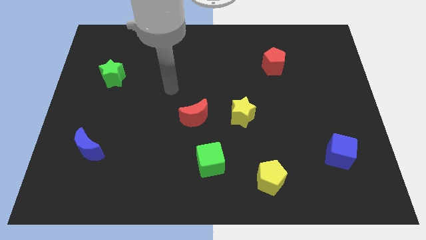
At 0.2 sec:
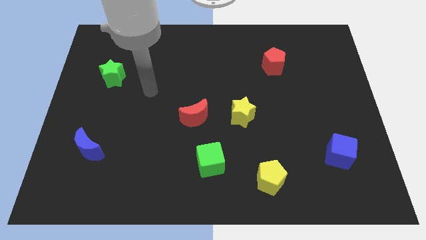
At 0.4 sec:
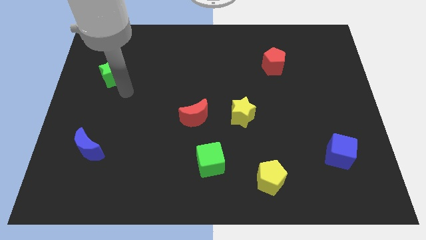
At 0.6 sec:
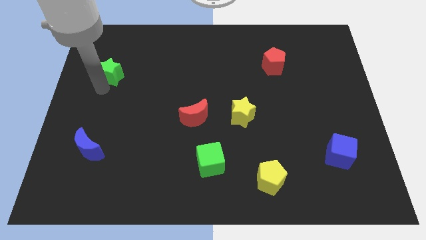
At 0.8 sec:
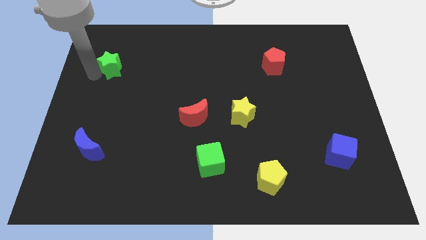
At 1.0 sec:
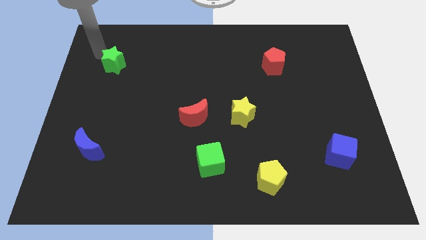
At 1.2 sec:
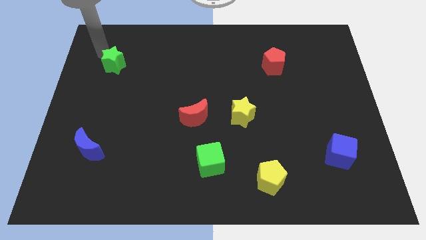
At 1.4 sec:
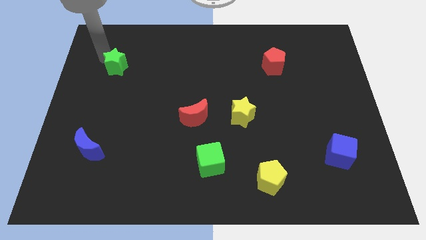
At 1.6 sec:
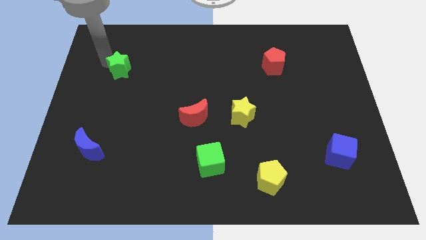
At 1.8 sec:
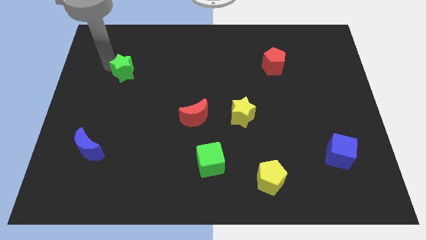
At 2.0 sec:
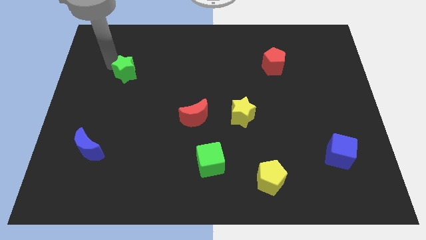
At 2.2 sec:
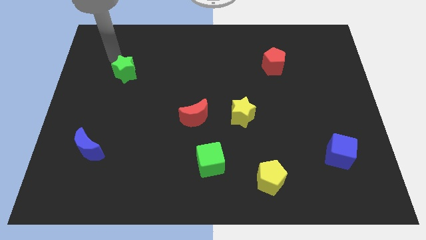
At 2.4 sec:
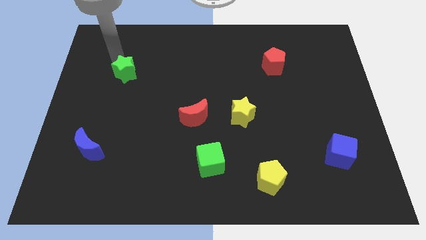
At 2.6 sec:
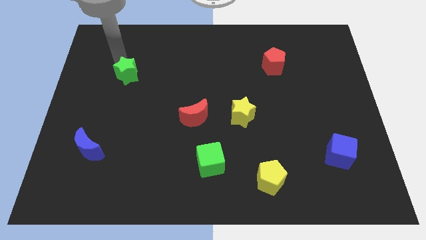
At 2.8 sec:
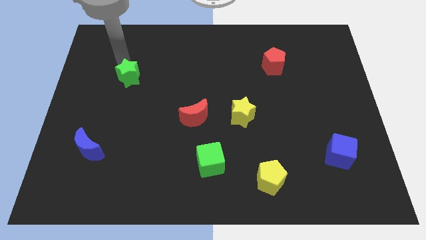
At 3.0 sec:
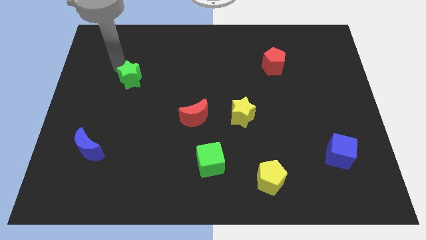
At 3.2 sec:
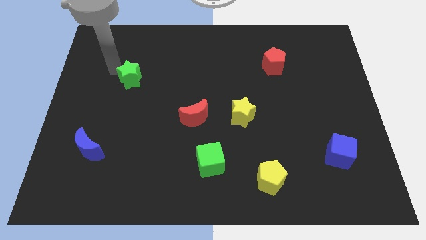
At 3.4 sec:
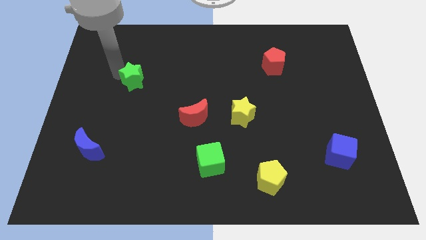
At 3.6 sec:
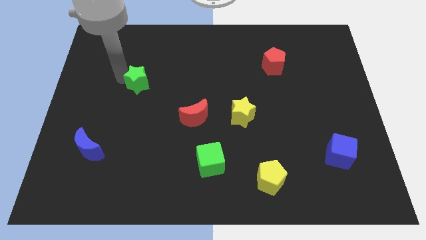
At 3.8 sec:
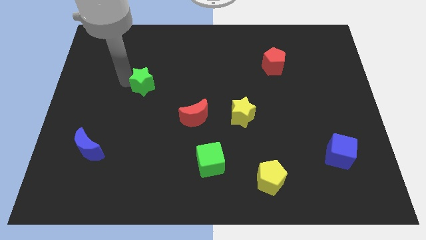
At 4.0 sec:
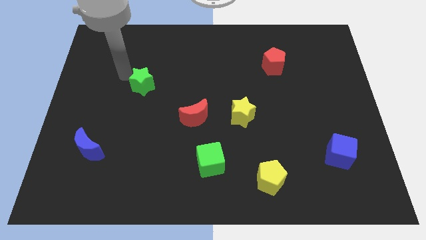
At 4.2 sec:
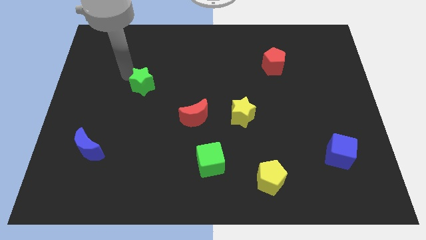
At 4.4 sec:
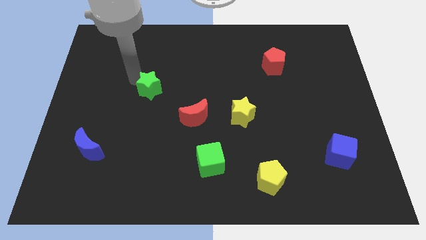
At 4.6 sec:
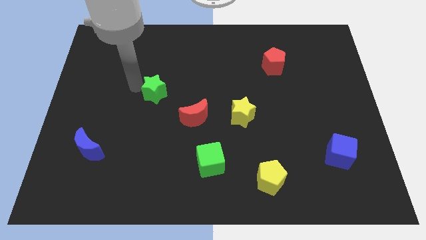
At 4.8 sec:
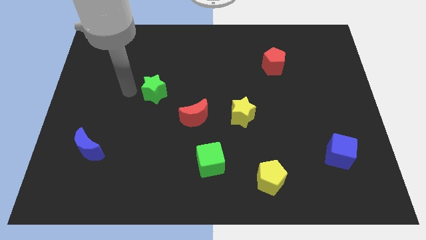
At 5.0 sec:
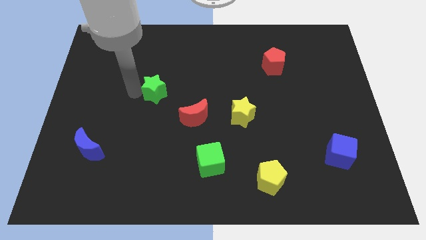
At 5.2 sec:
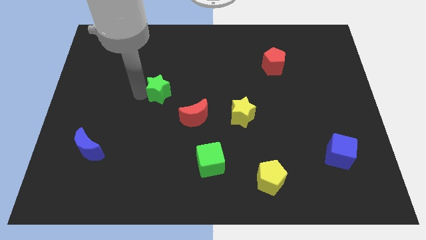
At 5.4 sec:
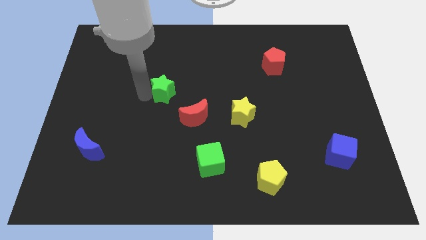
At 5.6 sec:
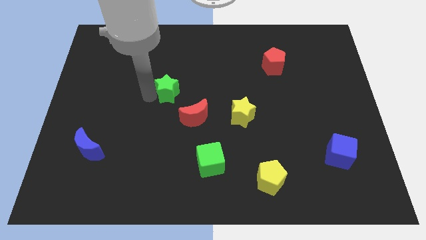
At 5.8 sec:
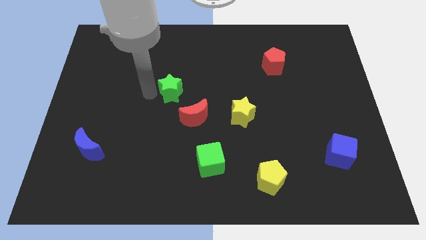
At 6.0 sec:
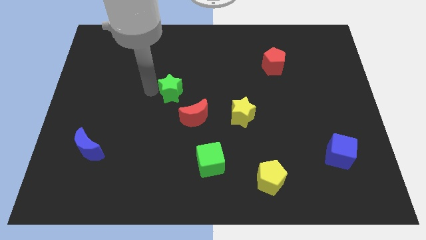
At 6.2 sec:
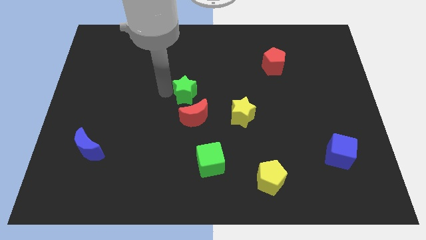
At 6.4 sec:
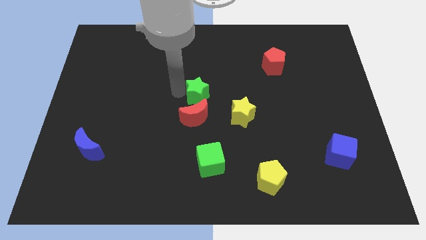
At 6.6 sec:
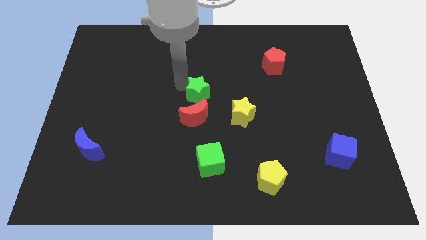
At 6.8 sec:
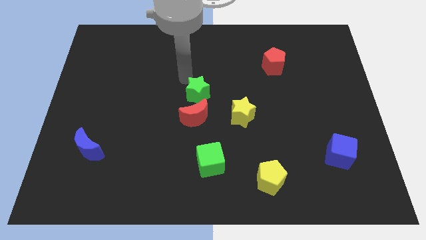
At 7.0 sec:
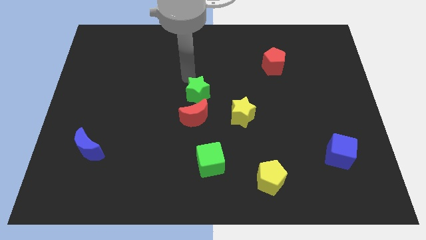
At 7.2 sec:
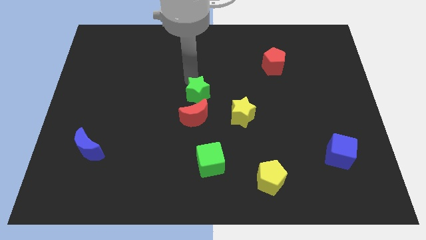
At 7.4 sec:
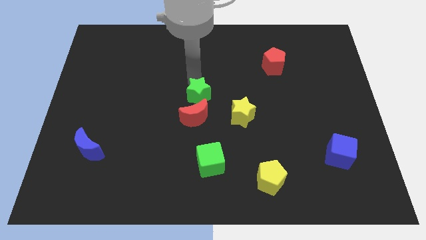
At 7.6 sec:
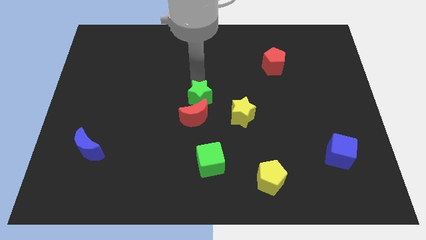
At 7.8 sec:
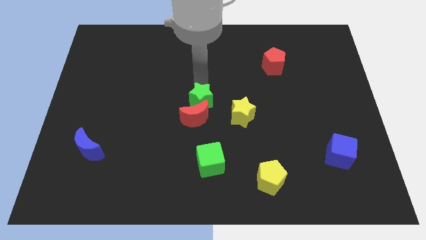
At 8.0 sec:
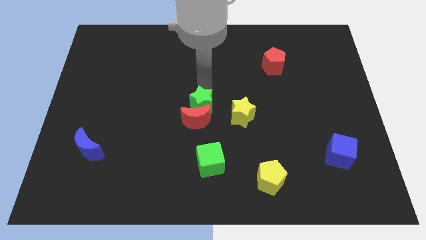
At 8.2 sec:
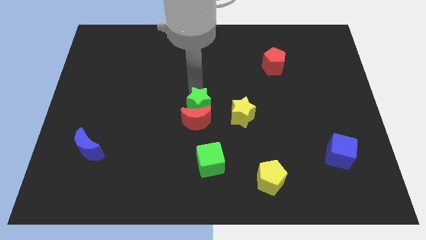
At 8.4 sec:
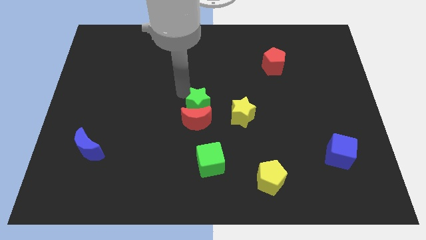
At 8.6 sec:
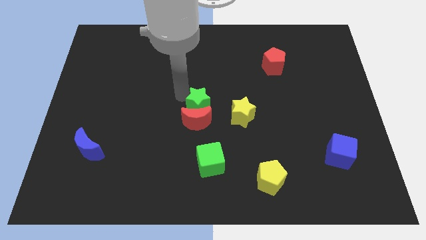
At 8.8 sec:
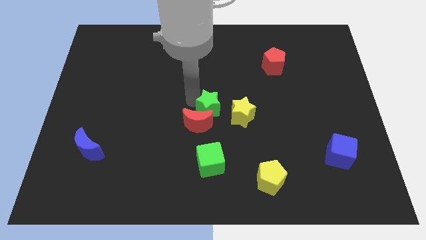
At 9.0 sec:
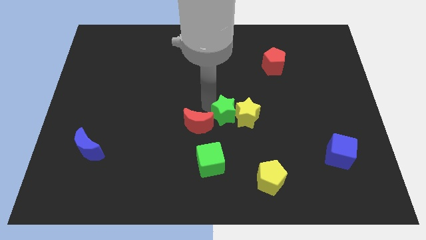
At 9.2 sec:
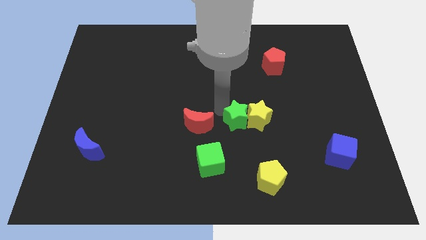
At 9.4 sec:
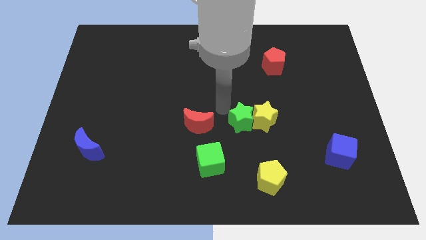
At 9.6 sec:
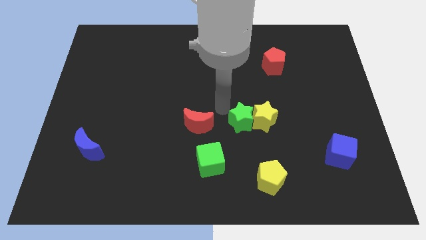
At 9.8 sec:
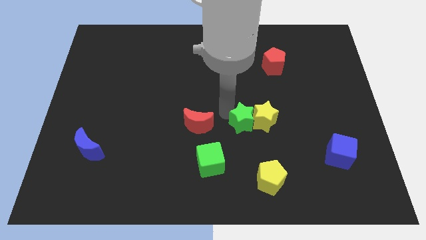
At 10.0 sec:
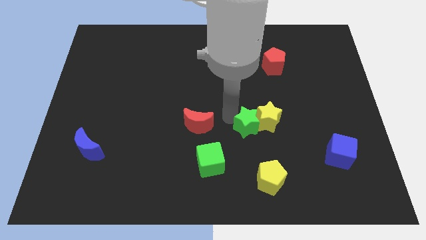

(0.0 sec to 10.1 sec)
put the green star to the top of the yellow pentagon

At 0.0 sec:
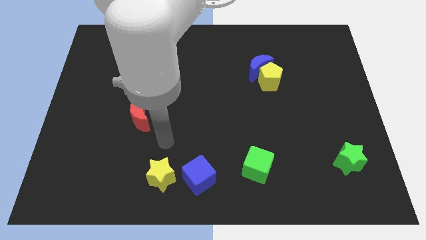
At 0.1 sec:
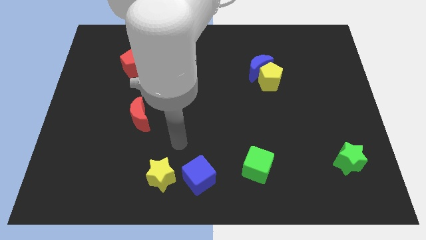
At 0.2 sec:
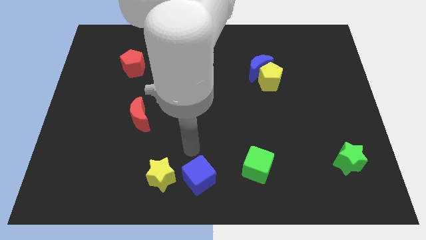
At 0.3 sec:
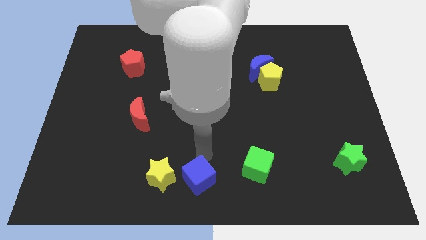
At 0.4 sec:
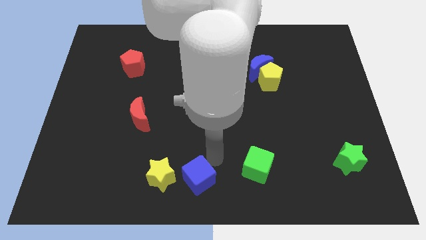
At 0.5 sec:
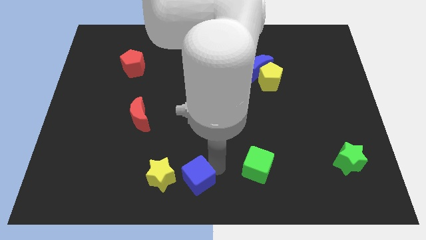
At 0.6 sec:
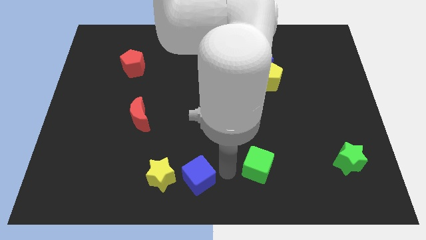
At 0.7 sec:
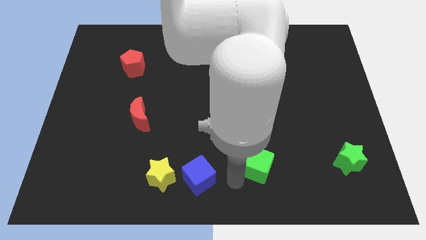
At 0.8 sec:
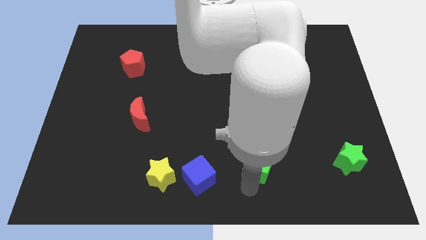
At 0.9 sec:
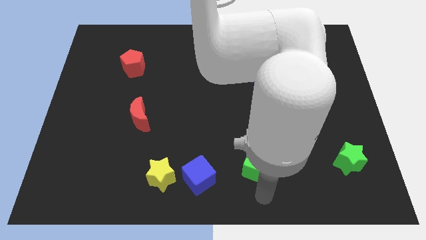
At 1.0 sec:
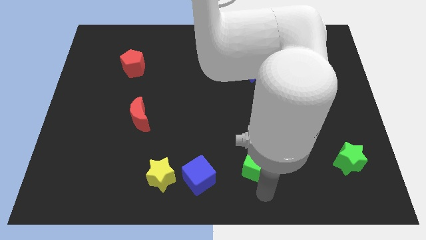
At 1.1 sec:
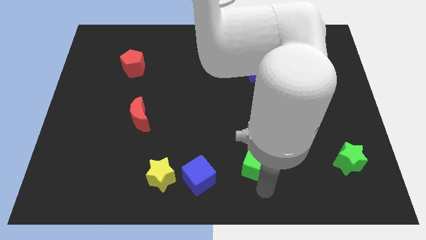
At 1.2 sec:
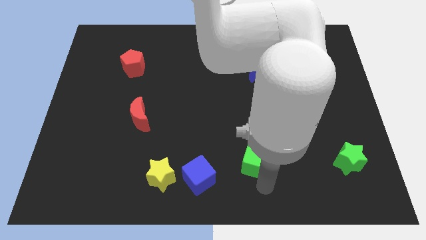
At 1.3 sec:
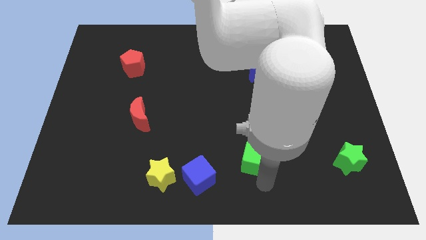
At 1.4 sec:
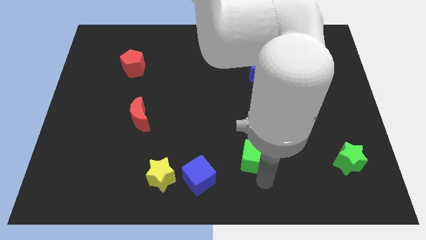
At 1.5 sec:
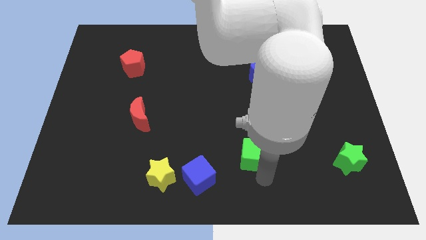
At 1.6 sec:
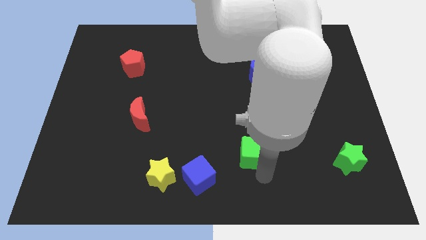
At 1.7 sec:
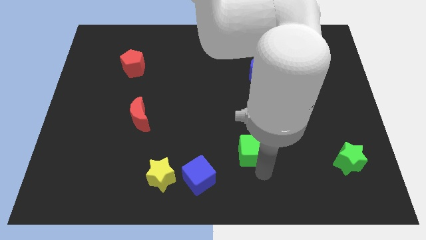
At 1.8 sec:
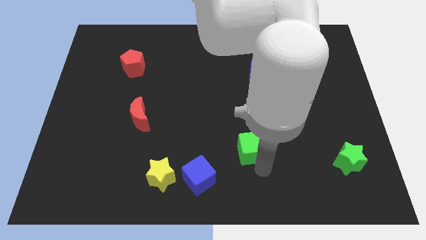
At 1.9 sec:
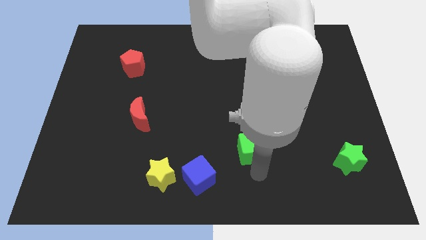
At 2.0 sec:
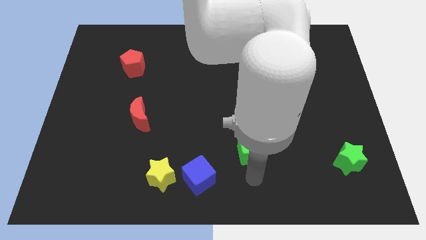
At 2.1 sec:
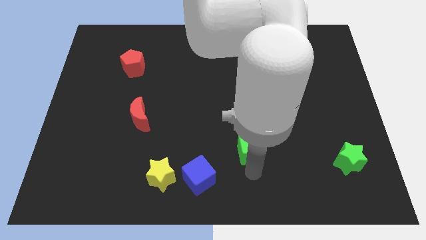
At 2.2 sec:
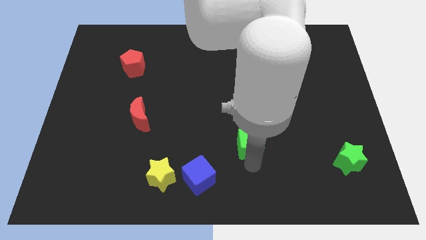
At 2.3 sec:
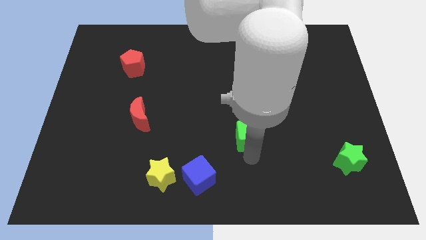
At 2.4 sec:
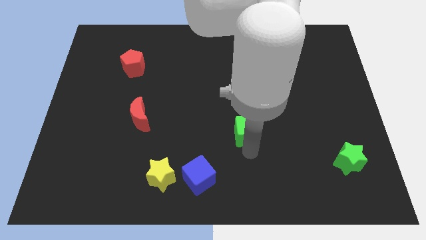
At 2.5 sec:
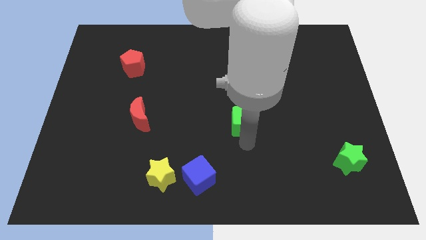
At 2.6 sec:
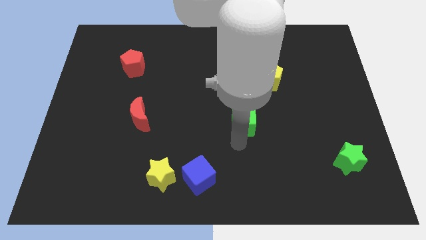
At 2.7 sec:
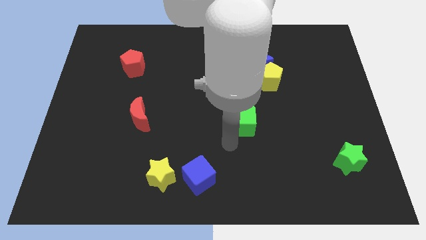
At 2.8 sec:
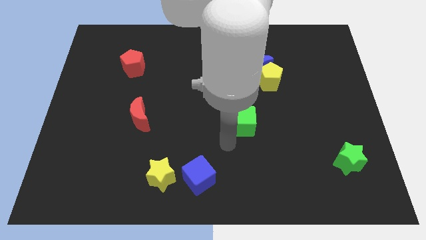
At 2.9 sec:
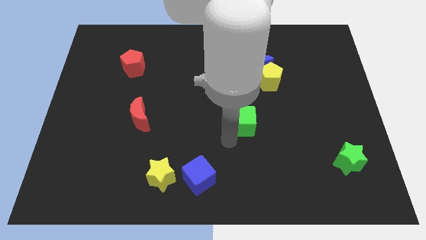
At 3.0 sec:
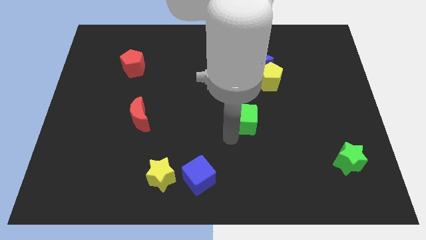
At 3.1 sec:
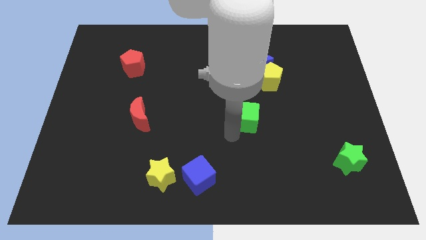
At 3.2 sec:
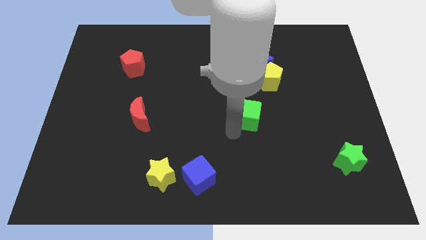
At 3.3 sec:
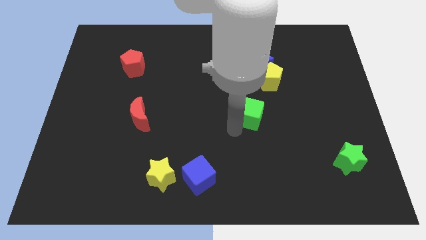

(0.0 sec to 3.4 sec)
put the green cube to the bottom of the blue moon
